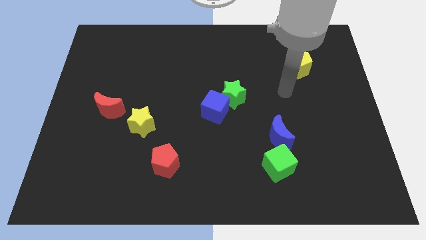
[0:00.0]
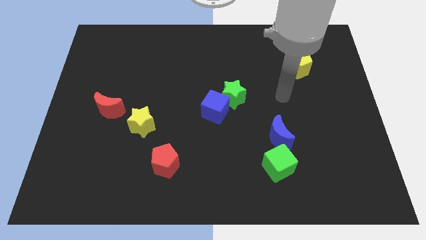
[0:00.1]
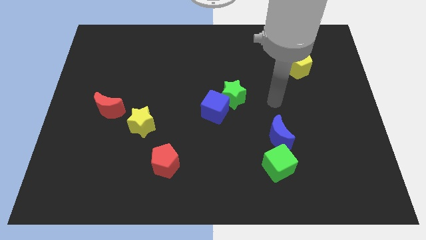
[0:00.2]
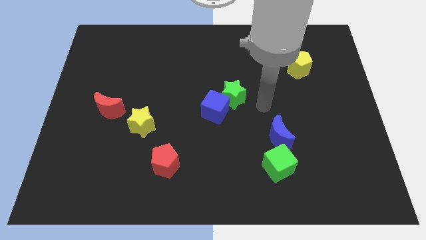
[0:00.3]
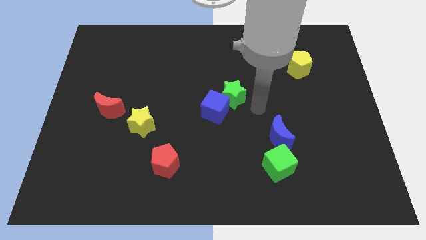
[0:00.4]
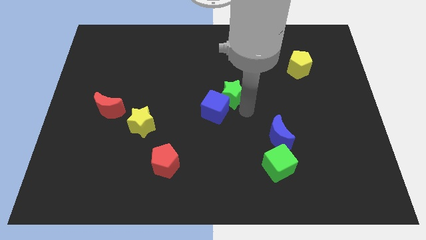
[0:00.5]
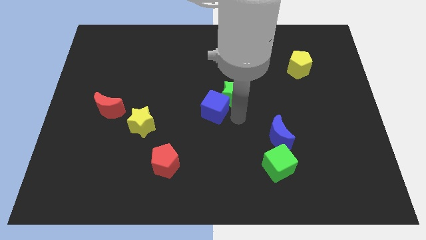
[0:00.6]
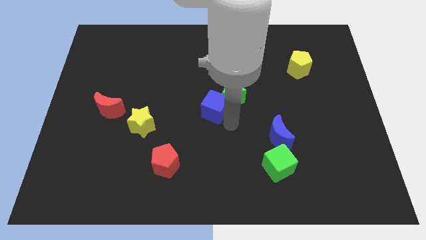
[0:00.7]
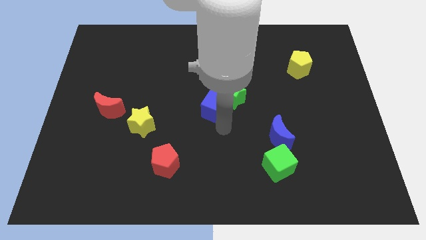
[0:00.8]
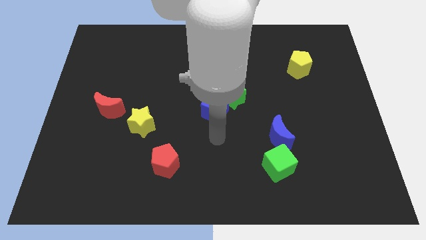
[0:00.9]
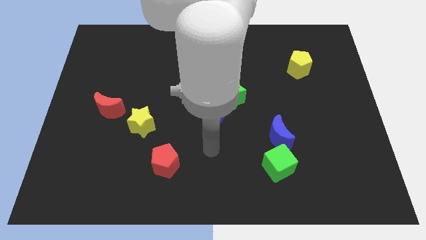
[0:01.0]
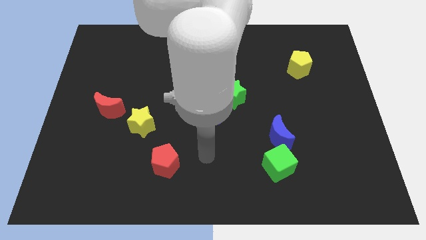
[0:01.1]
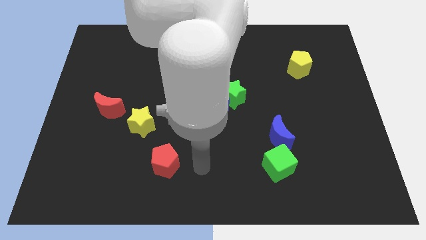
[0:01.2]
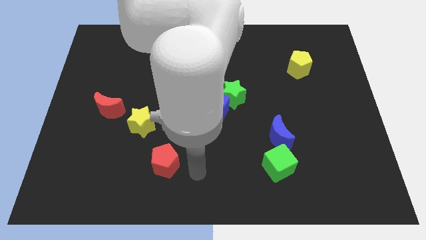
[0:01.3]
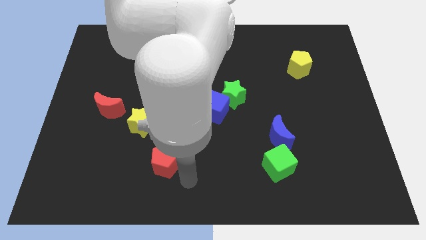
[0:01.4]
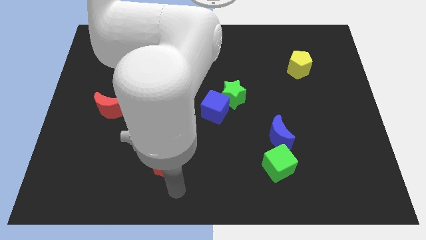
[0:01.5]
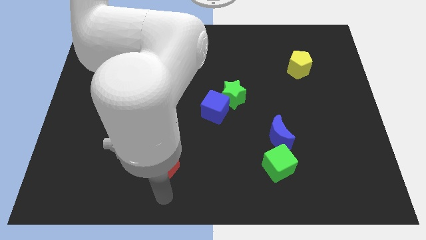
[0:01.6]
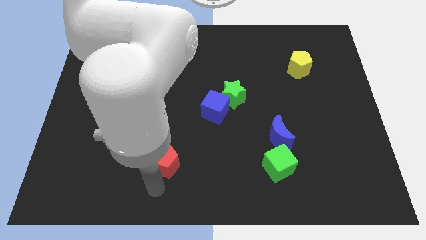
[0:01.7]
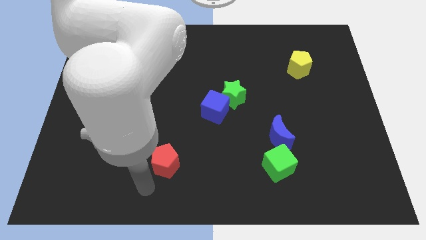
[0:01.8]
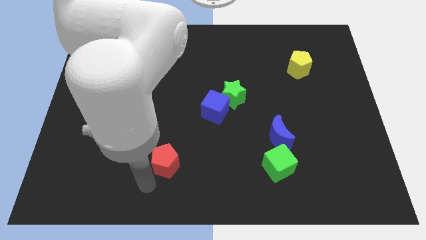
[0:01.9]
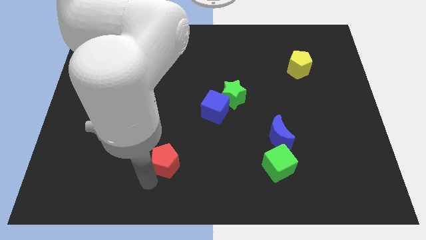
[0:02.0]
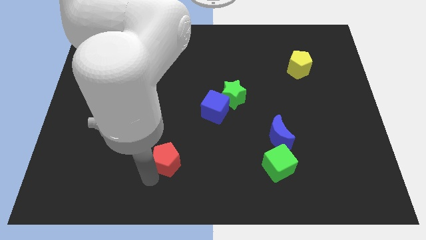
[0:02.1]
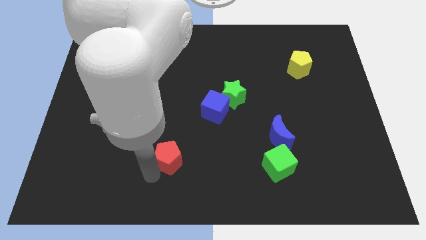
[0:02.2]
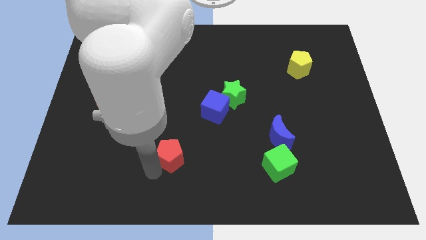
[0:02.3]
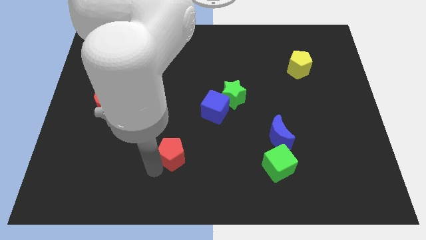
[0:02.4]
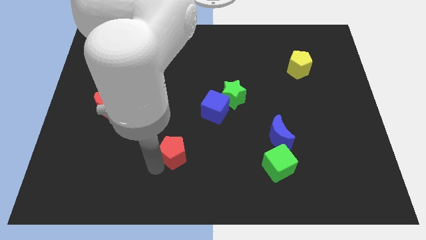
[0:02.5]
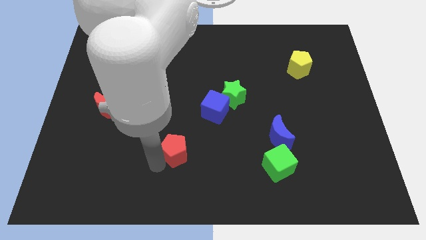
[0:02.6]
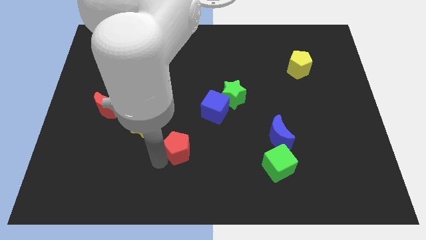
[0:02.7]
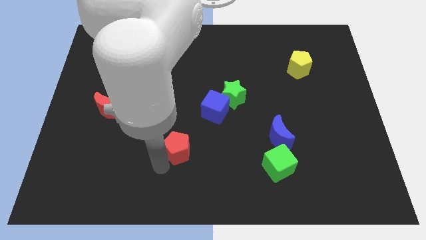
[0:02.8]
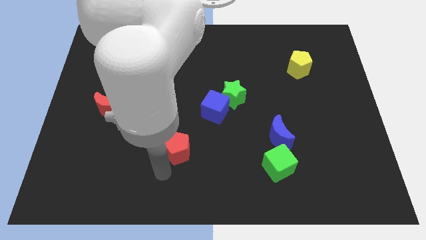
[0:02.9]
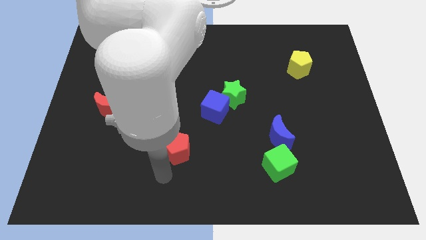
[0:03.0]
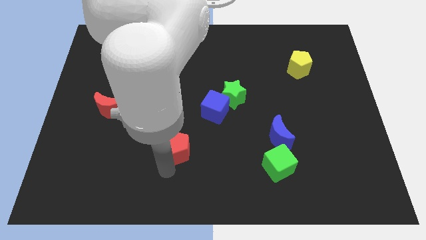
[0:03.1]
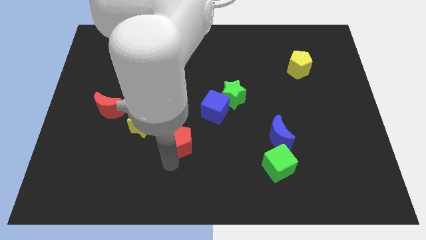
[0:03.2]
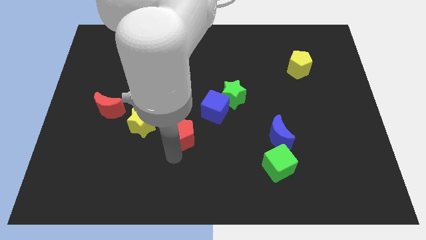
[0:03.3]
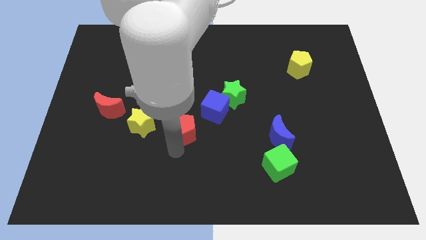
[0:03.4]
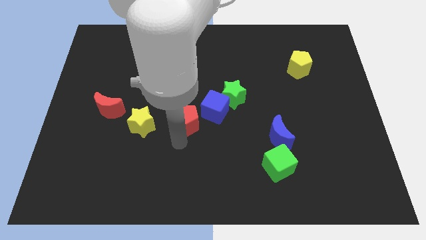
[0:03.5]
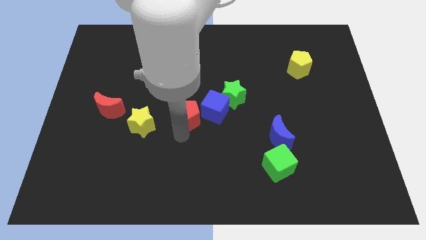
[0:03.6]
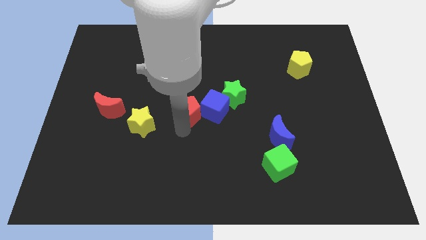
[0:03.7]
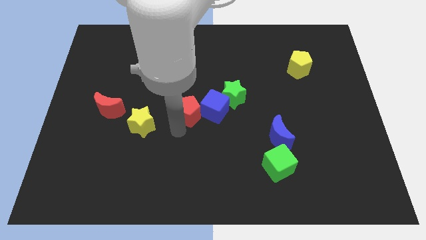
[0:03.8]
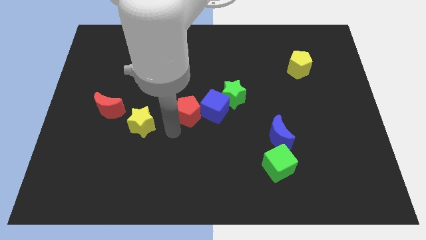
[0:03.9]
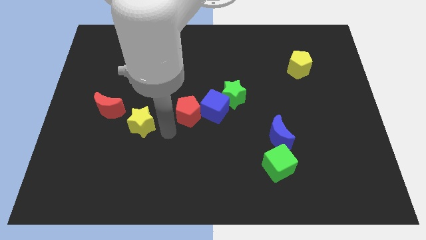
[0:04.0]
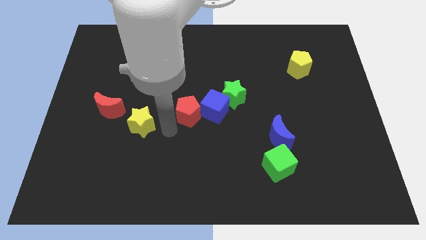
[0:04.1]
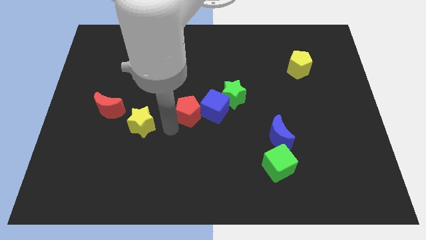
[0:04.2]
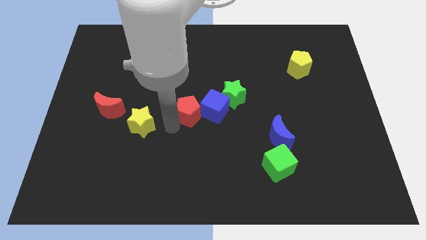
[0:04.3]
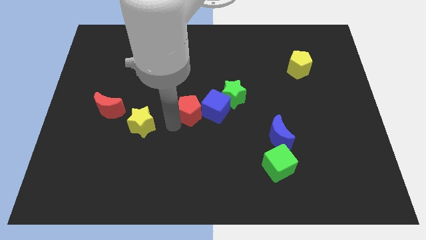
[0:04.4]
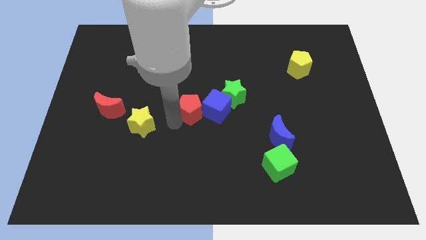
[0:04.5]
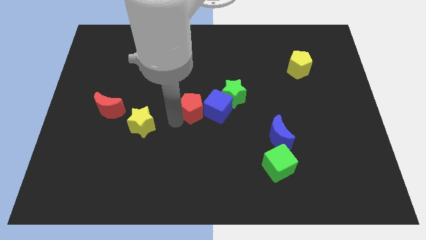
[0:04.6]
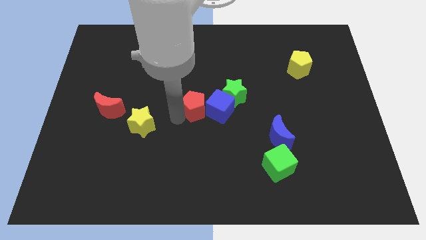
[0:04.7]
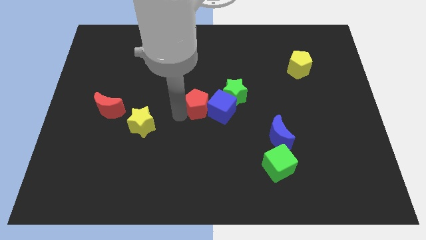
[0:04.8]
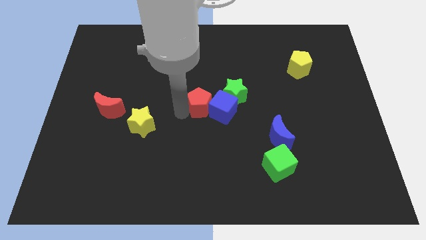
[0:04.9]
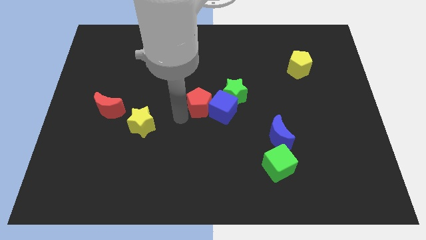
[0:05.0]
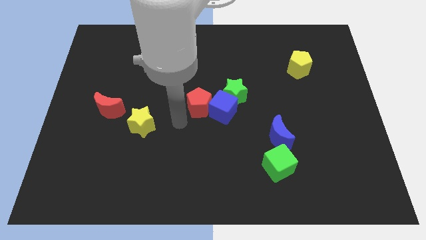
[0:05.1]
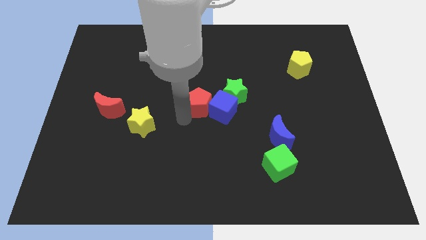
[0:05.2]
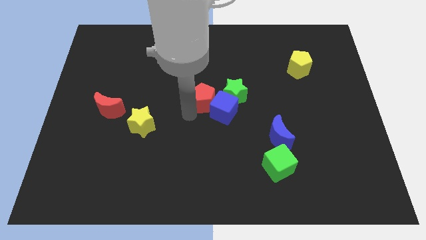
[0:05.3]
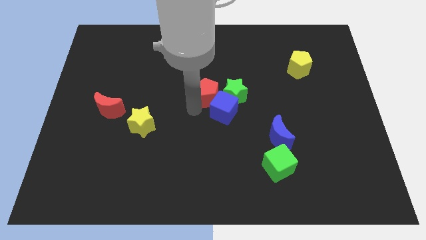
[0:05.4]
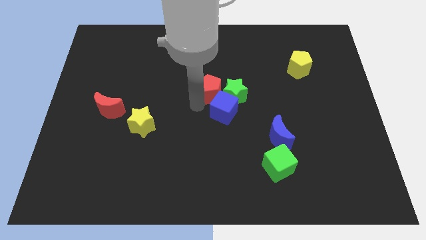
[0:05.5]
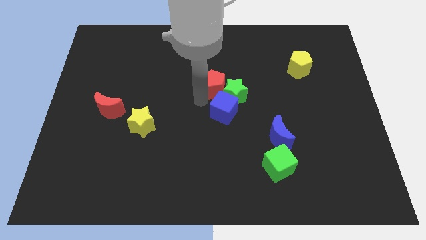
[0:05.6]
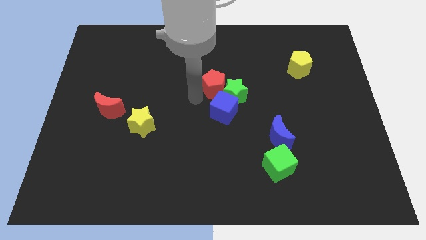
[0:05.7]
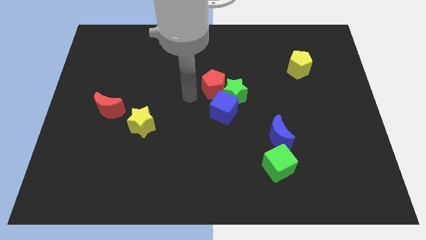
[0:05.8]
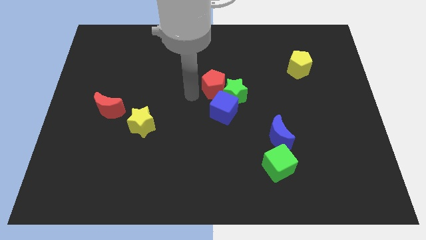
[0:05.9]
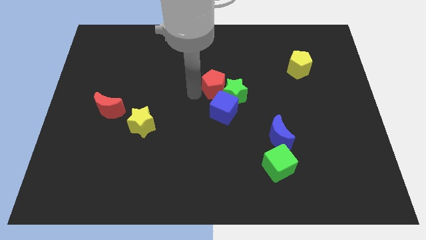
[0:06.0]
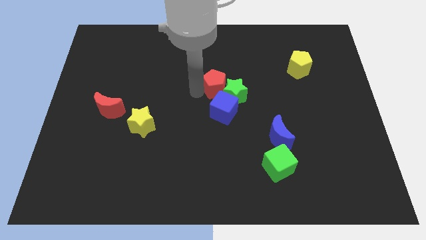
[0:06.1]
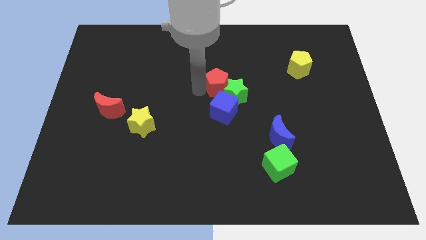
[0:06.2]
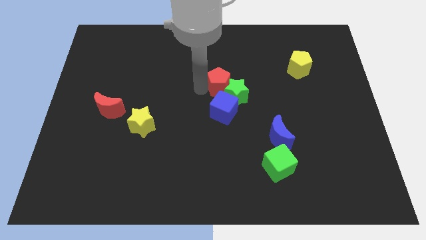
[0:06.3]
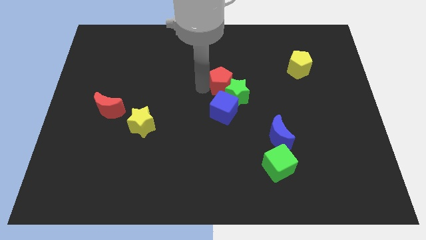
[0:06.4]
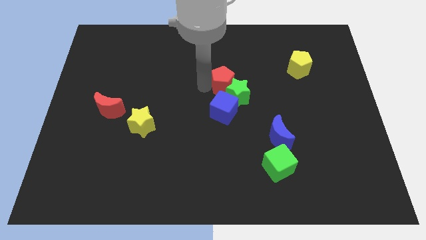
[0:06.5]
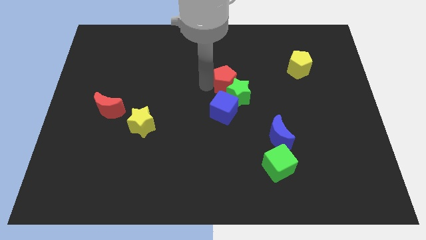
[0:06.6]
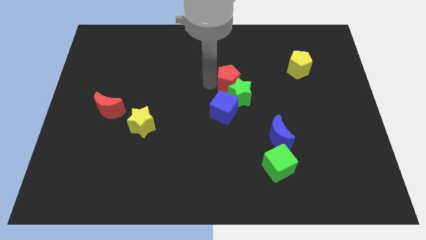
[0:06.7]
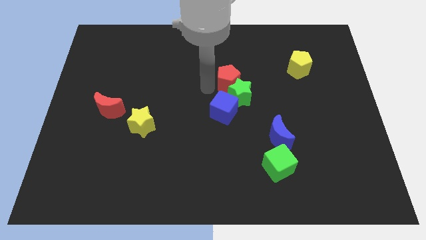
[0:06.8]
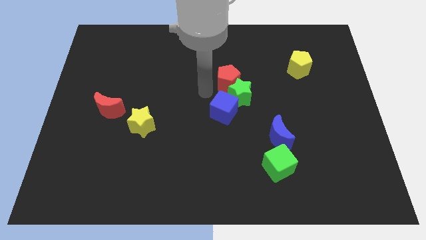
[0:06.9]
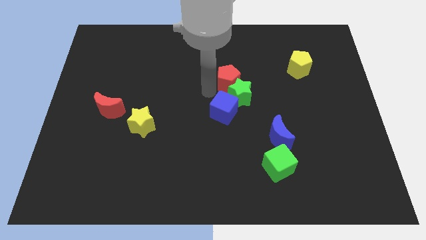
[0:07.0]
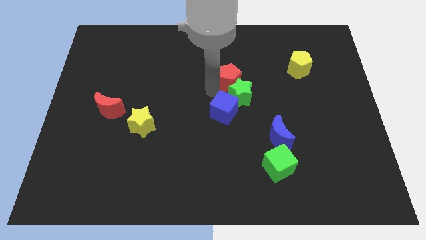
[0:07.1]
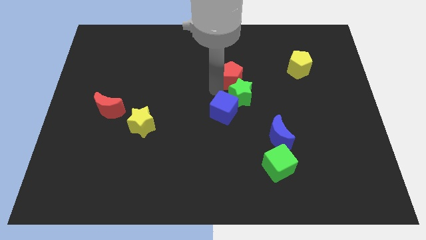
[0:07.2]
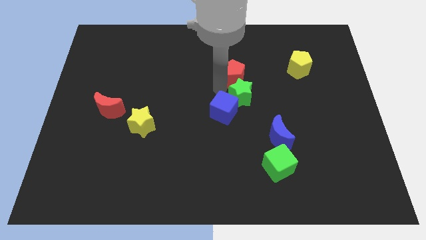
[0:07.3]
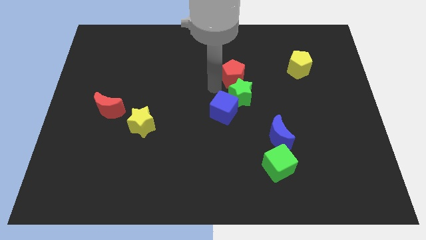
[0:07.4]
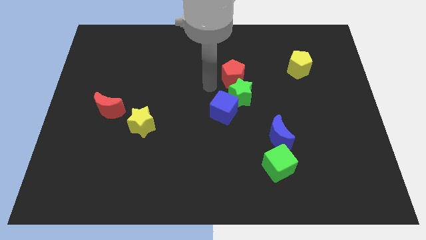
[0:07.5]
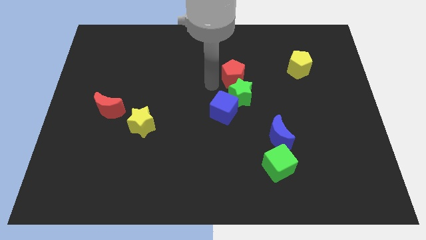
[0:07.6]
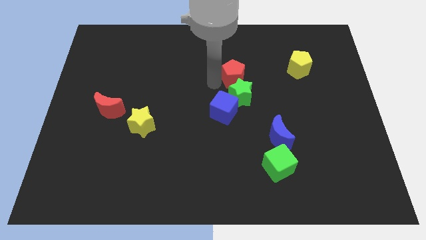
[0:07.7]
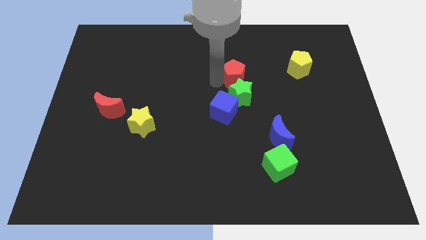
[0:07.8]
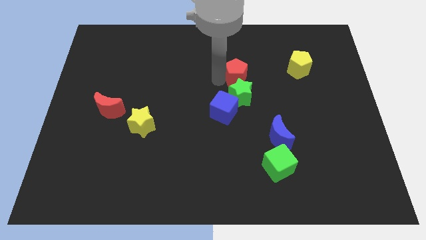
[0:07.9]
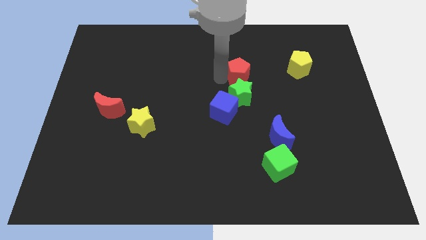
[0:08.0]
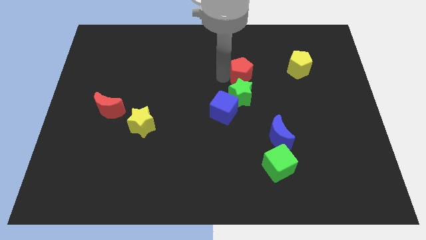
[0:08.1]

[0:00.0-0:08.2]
put the red pentagon just left of the yellow pentagon
